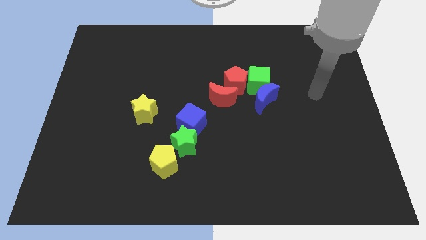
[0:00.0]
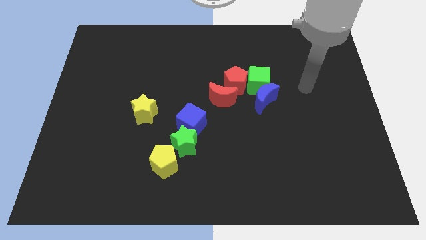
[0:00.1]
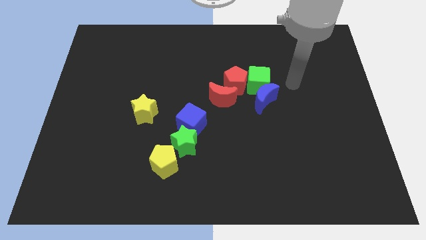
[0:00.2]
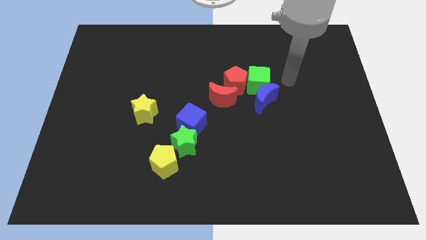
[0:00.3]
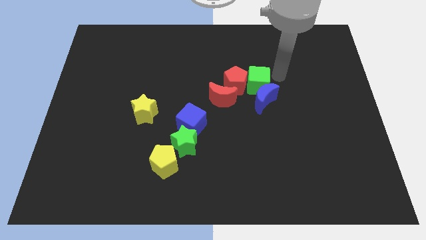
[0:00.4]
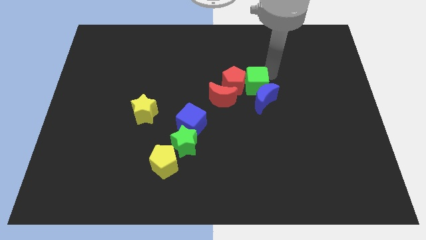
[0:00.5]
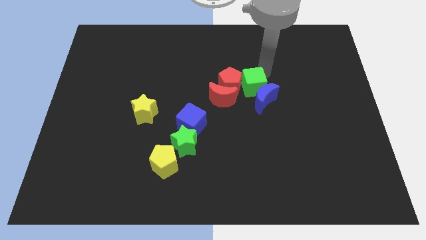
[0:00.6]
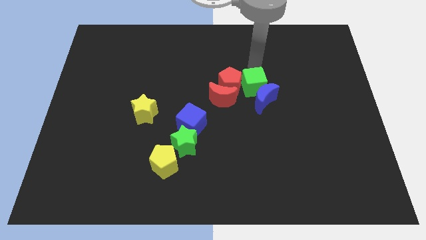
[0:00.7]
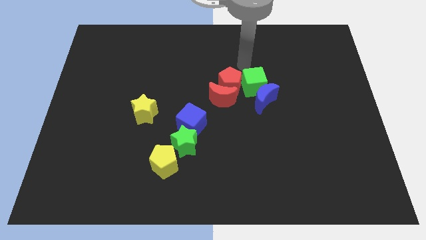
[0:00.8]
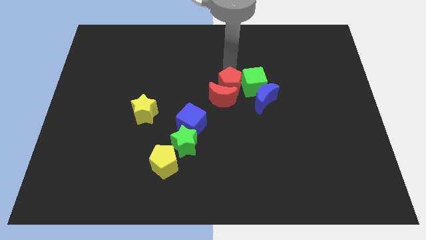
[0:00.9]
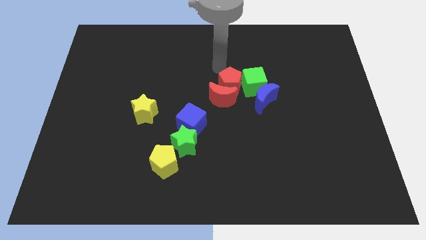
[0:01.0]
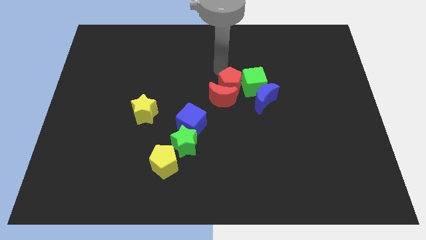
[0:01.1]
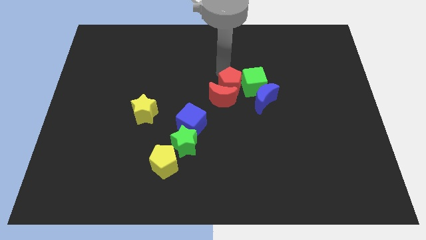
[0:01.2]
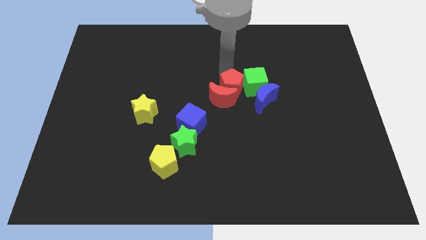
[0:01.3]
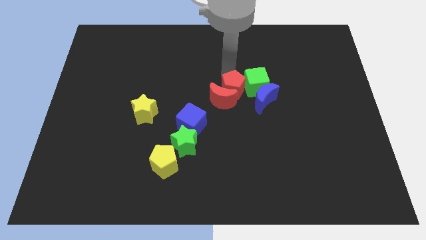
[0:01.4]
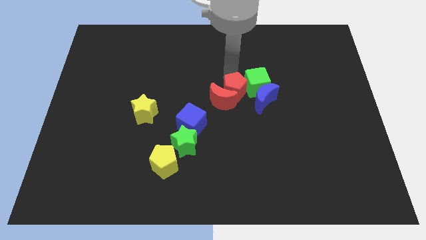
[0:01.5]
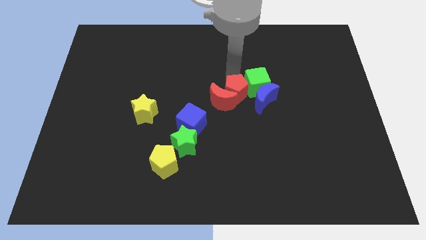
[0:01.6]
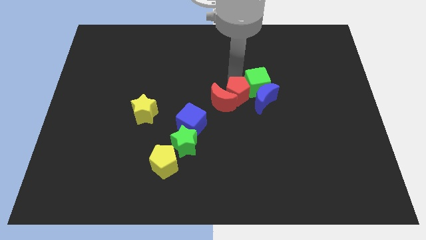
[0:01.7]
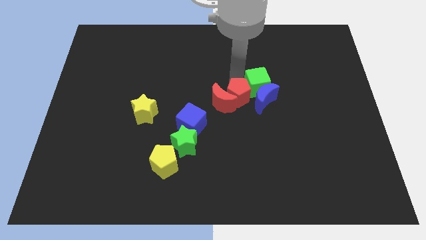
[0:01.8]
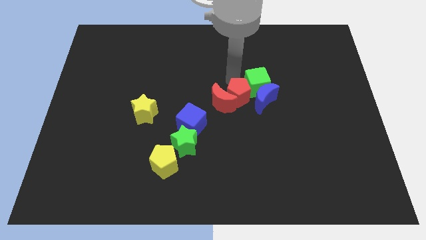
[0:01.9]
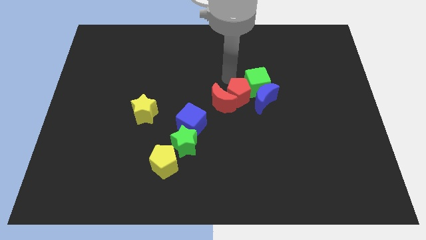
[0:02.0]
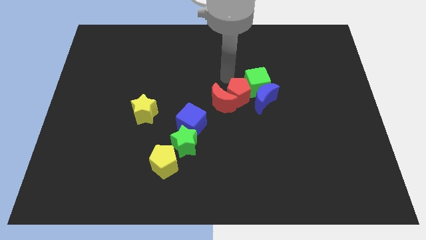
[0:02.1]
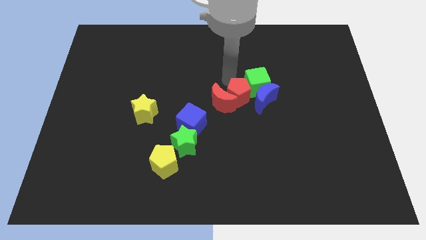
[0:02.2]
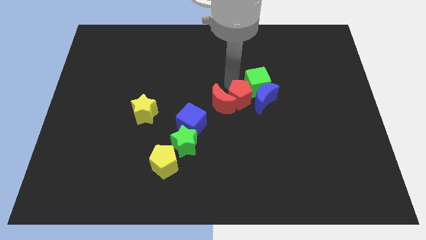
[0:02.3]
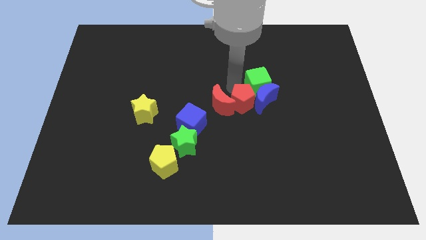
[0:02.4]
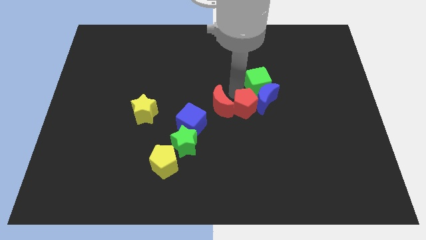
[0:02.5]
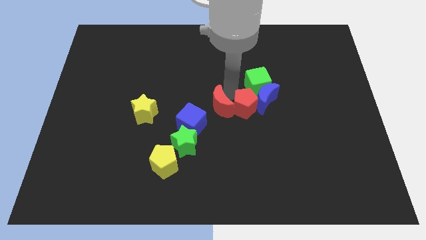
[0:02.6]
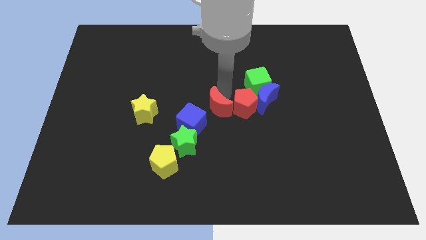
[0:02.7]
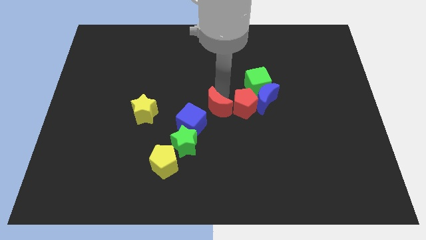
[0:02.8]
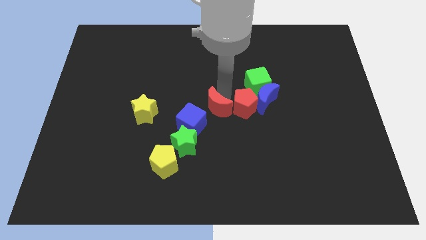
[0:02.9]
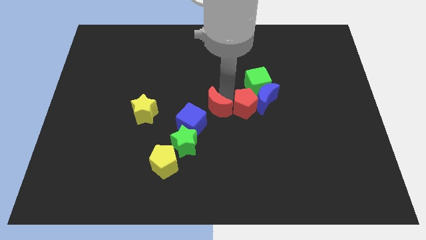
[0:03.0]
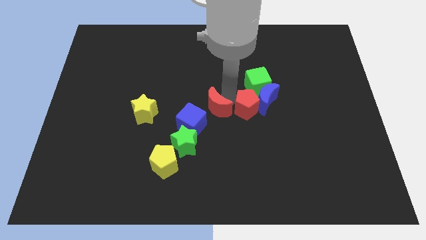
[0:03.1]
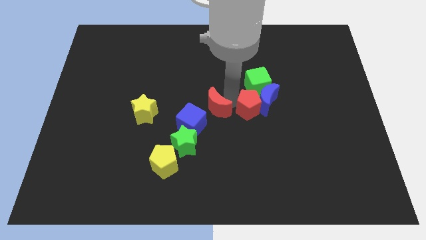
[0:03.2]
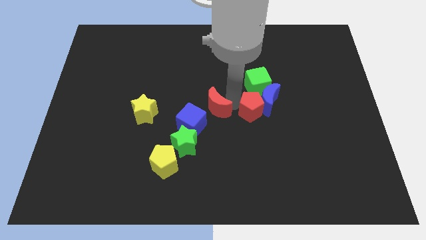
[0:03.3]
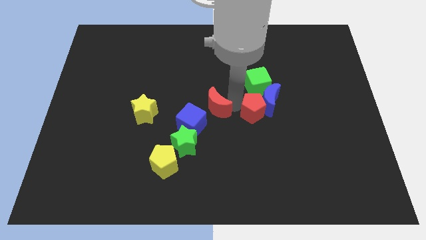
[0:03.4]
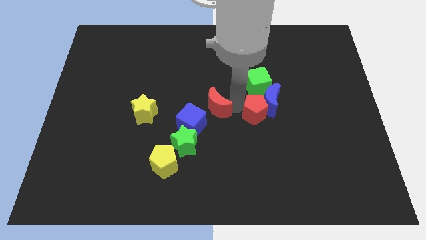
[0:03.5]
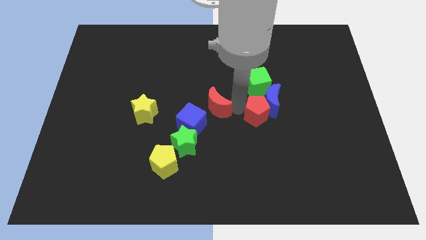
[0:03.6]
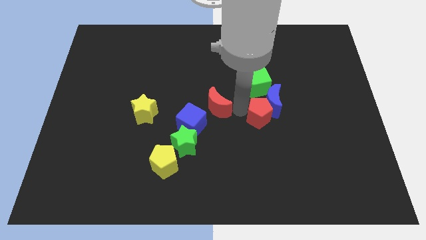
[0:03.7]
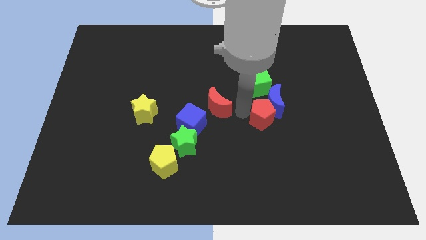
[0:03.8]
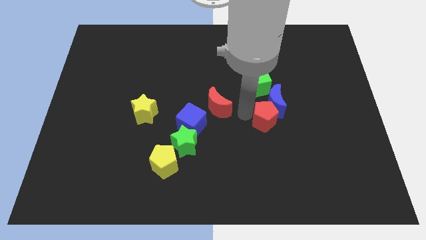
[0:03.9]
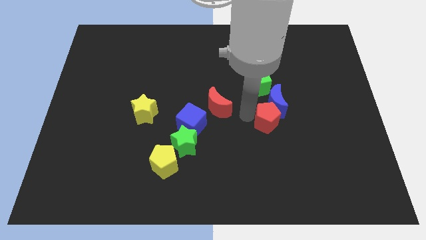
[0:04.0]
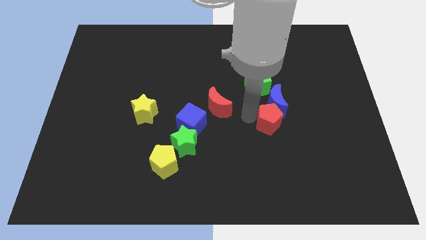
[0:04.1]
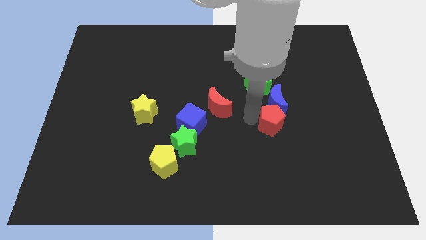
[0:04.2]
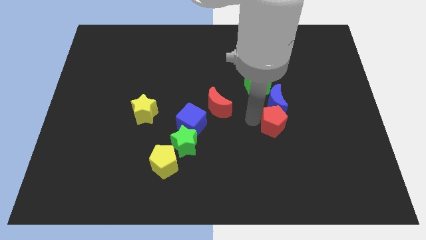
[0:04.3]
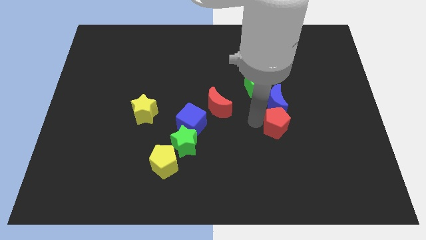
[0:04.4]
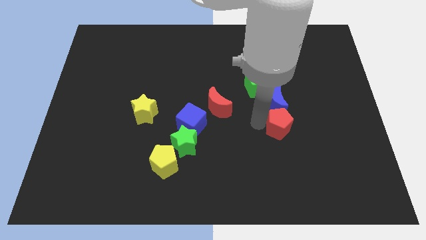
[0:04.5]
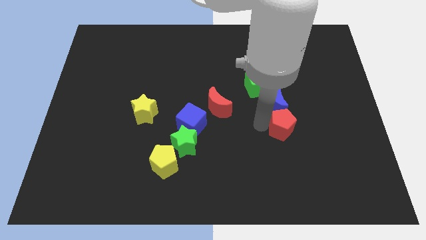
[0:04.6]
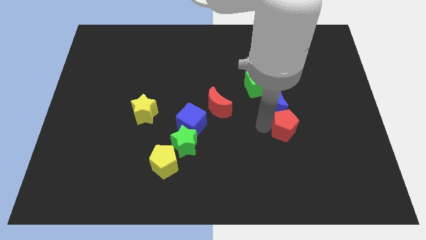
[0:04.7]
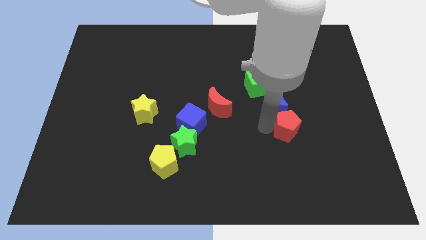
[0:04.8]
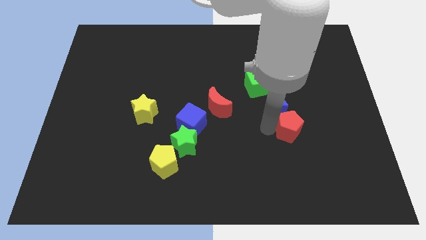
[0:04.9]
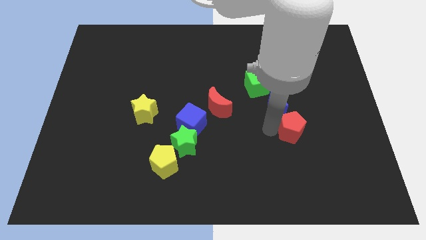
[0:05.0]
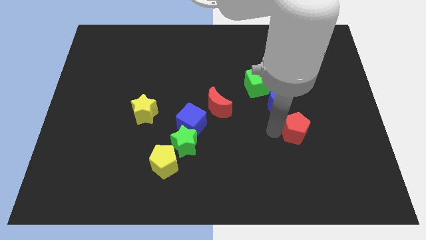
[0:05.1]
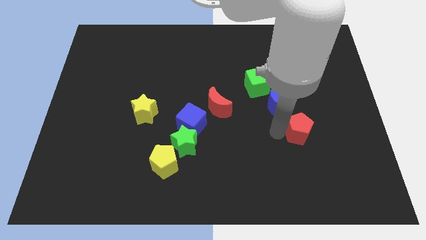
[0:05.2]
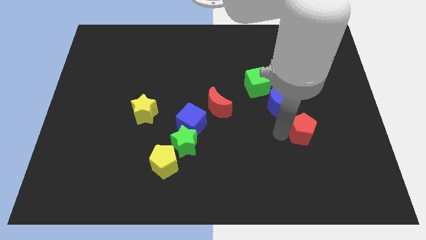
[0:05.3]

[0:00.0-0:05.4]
move the red pentagon down and right

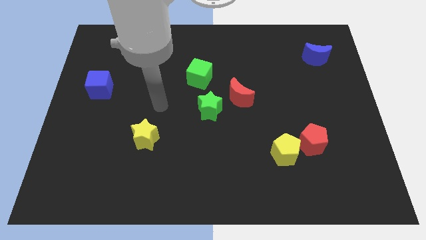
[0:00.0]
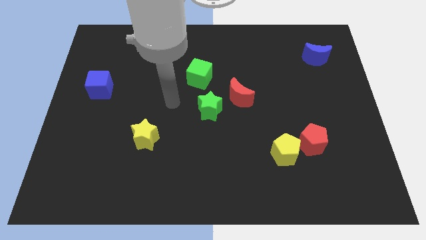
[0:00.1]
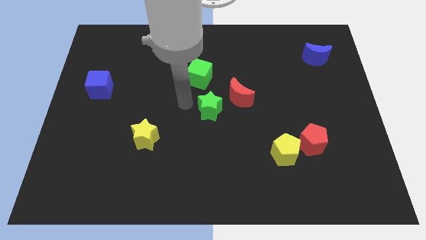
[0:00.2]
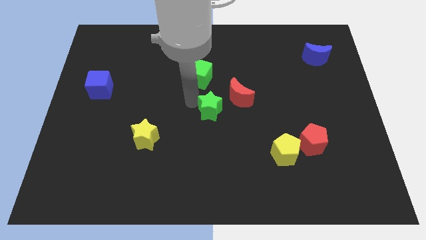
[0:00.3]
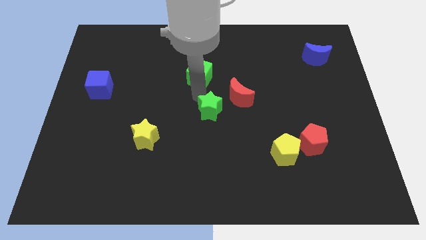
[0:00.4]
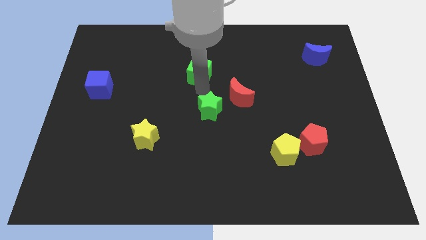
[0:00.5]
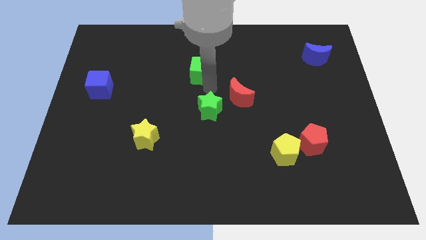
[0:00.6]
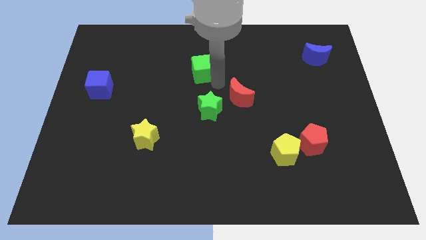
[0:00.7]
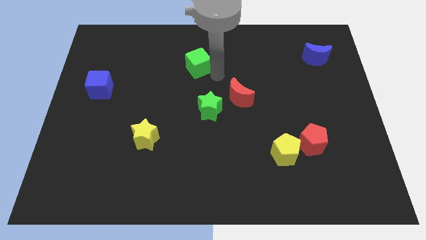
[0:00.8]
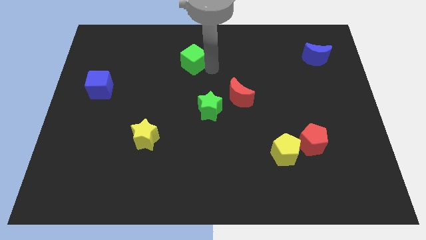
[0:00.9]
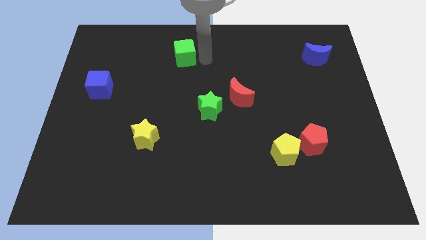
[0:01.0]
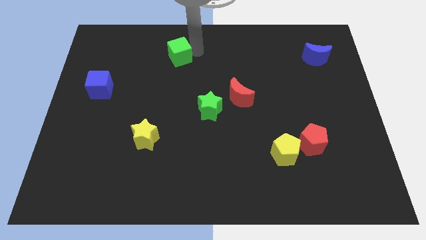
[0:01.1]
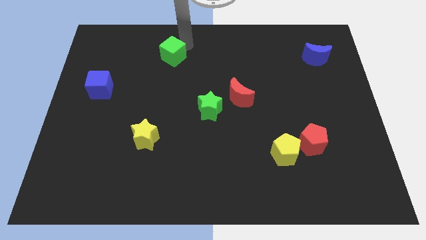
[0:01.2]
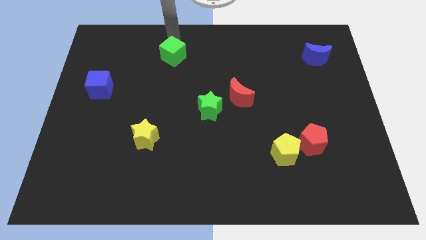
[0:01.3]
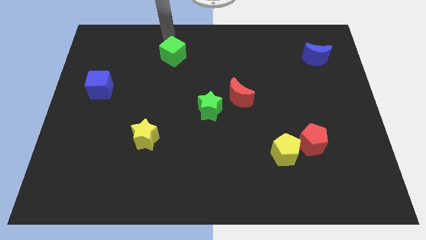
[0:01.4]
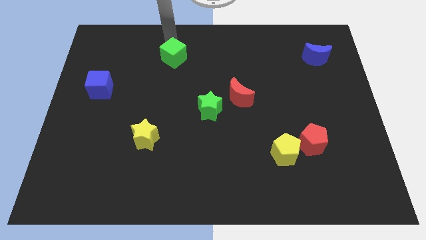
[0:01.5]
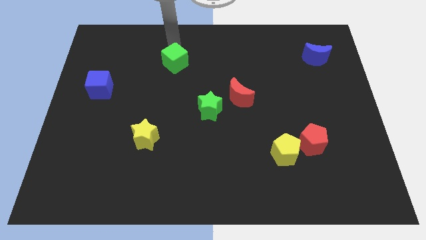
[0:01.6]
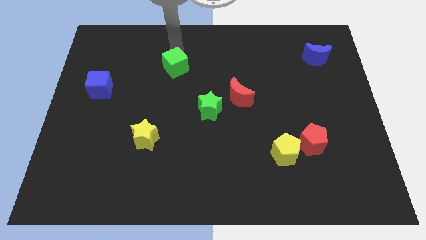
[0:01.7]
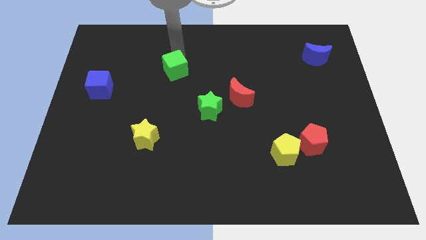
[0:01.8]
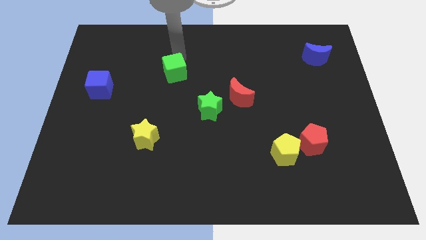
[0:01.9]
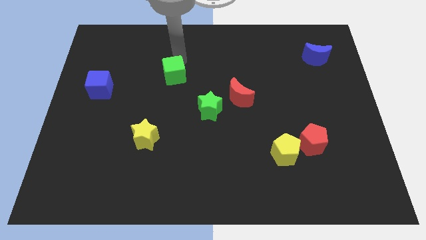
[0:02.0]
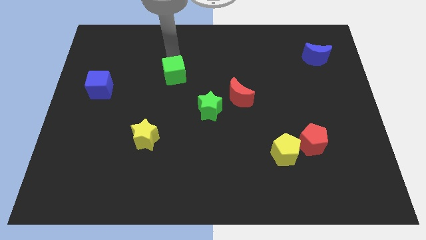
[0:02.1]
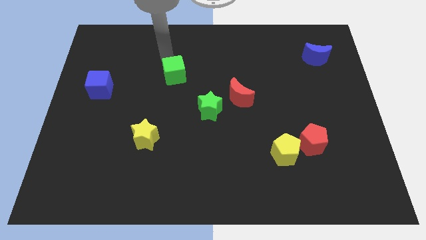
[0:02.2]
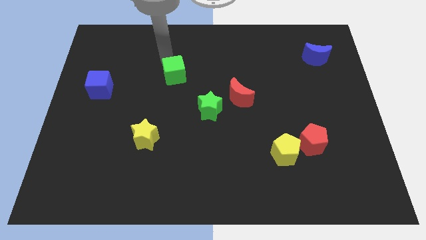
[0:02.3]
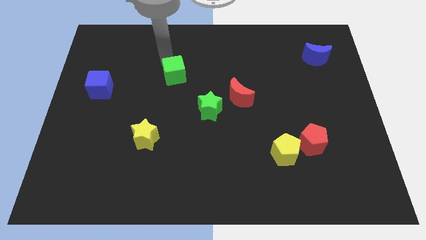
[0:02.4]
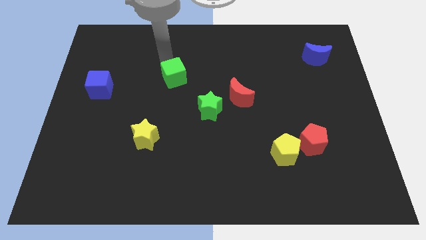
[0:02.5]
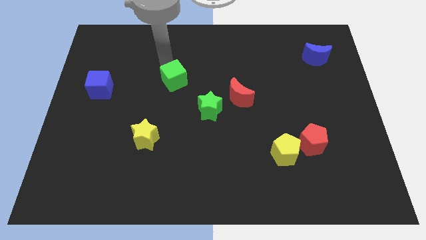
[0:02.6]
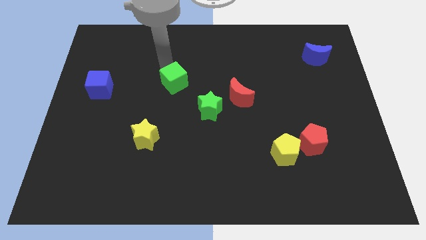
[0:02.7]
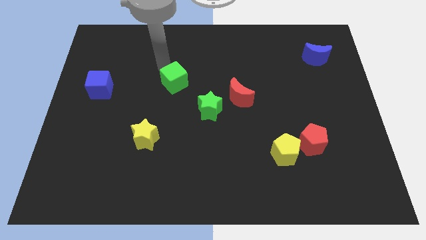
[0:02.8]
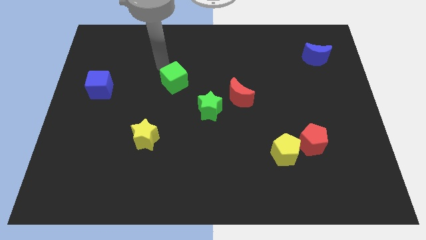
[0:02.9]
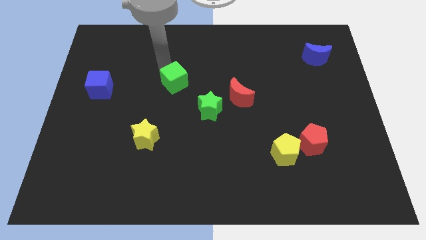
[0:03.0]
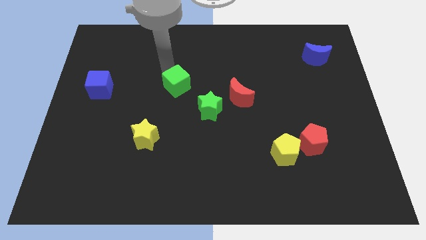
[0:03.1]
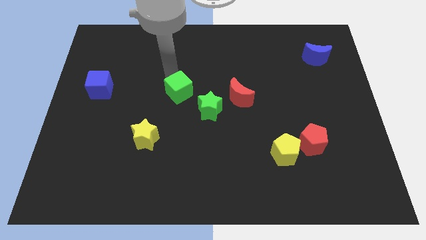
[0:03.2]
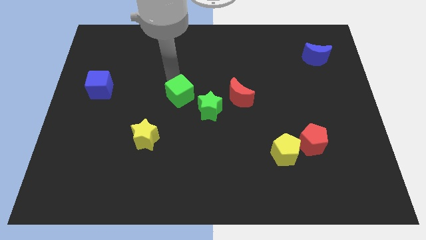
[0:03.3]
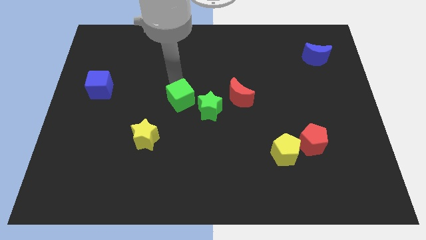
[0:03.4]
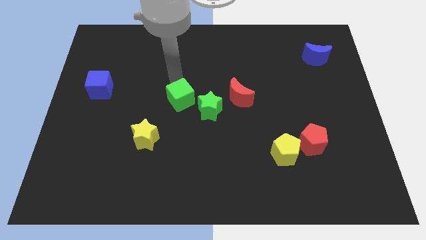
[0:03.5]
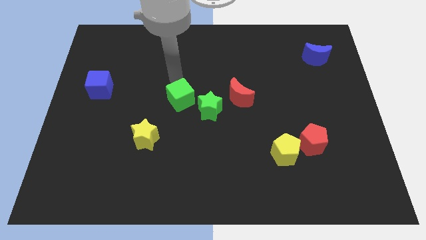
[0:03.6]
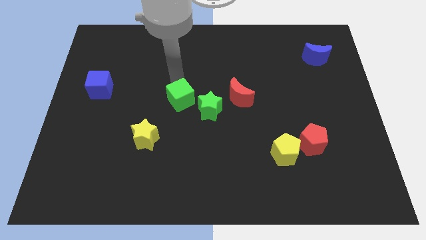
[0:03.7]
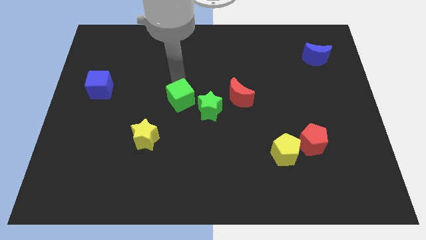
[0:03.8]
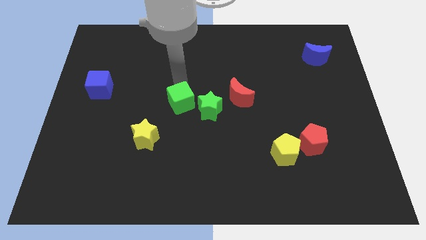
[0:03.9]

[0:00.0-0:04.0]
slightly push the green cube down
